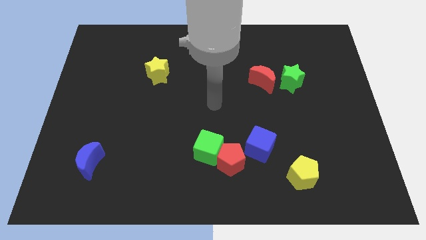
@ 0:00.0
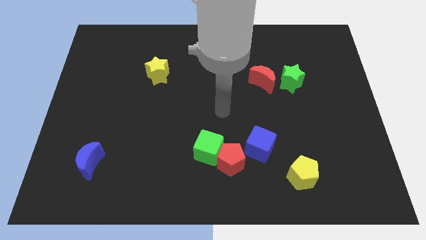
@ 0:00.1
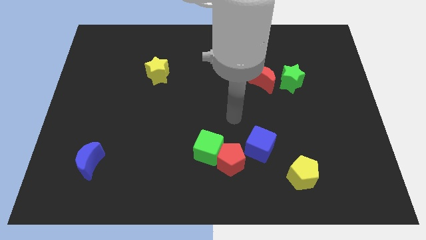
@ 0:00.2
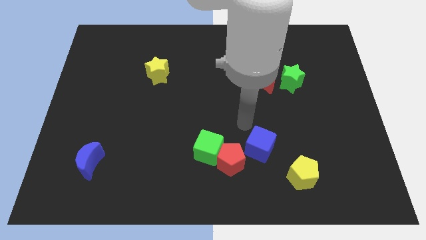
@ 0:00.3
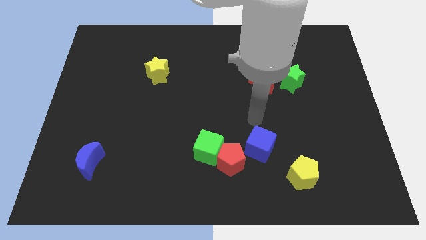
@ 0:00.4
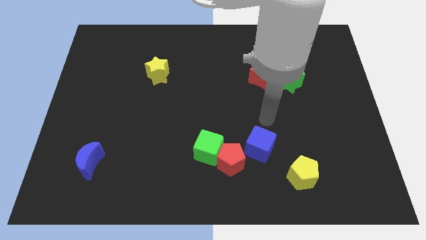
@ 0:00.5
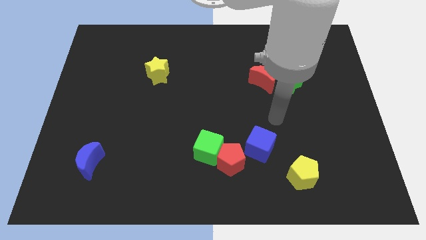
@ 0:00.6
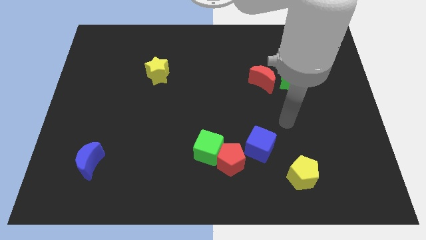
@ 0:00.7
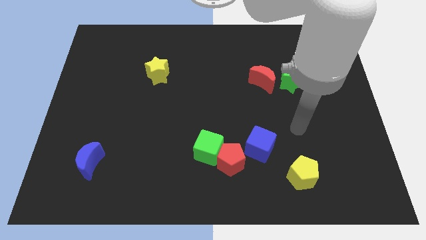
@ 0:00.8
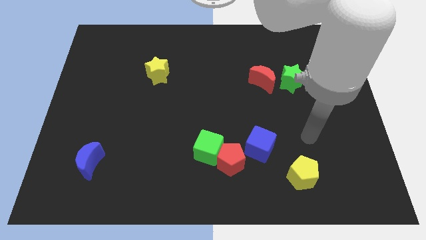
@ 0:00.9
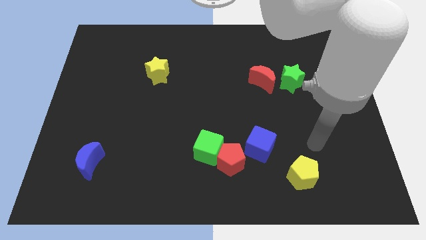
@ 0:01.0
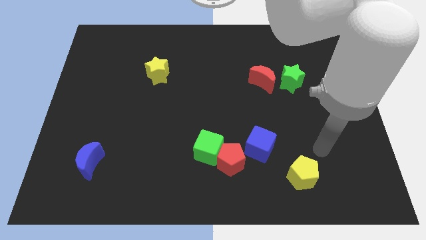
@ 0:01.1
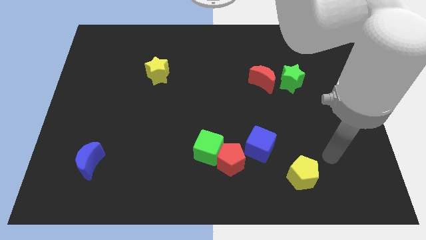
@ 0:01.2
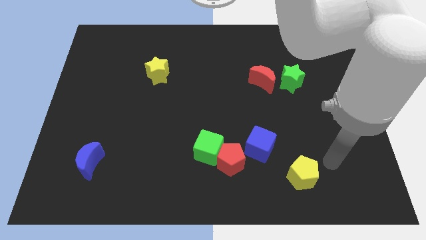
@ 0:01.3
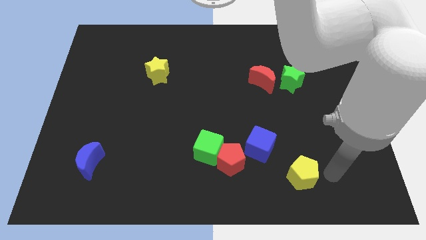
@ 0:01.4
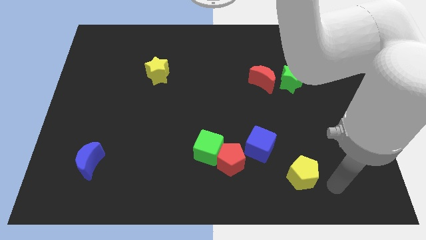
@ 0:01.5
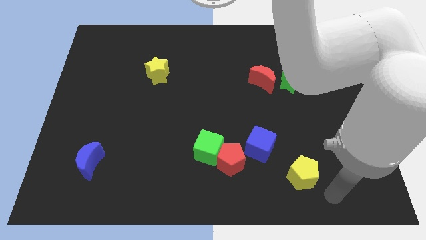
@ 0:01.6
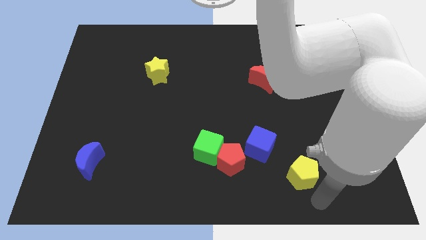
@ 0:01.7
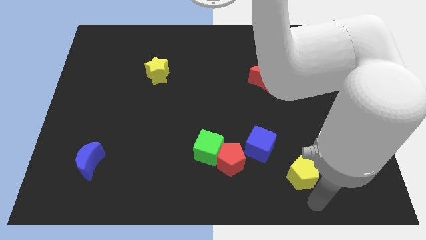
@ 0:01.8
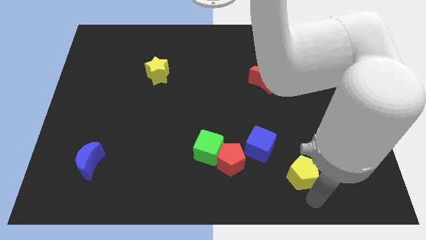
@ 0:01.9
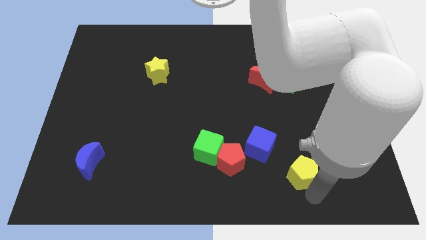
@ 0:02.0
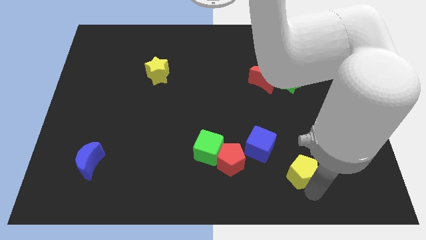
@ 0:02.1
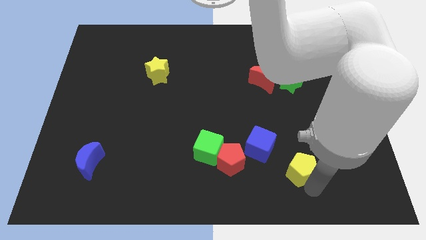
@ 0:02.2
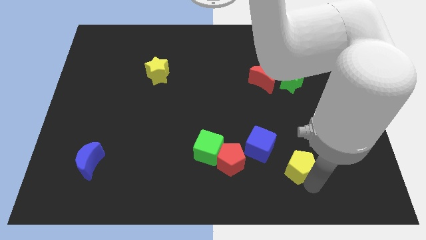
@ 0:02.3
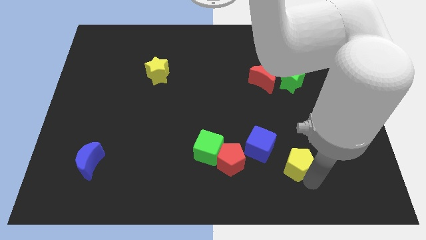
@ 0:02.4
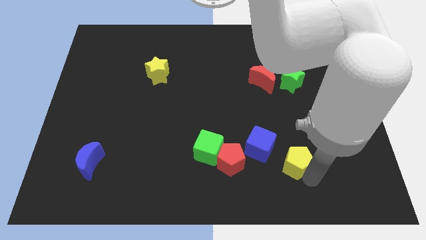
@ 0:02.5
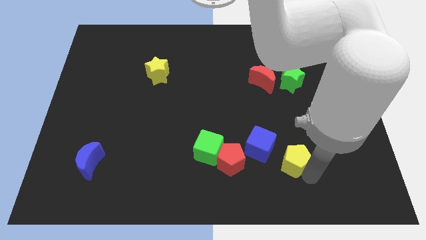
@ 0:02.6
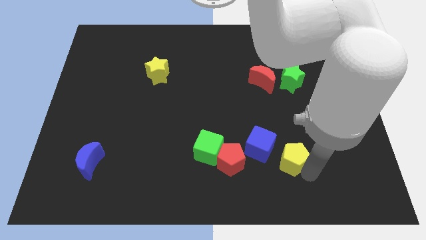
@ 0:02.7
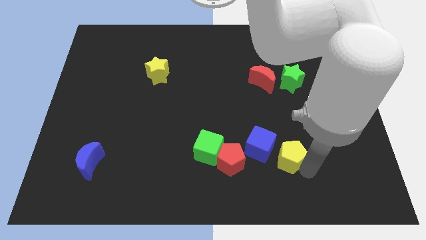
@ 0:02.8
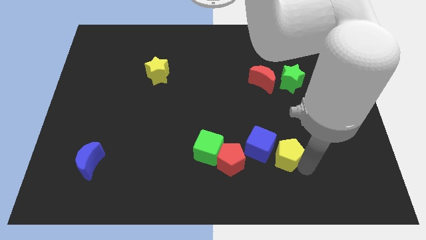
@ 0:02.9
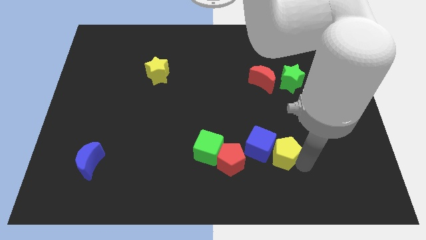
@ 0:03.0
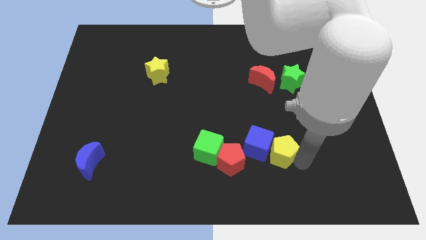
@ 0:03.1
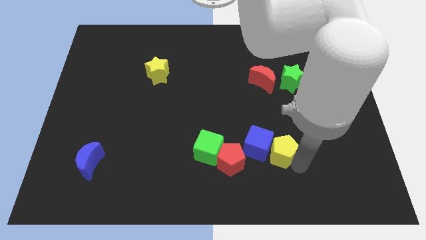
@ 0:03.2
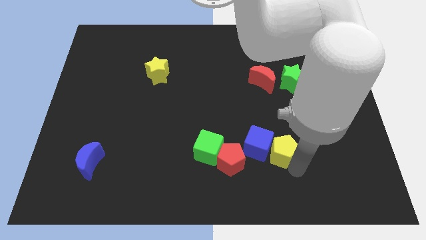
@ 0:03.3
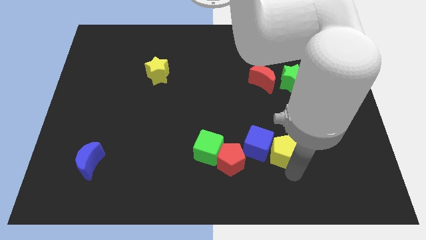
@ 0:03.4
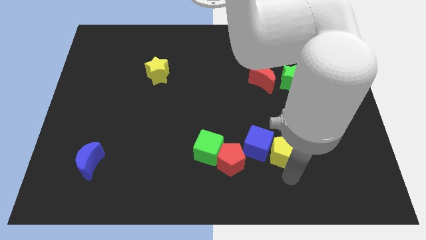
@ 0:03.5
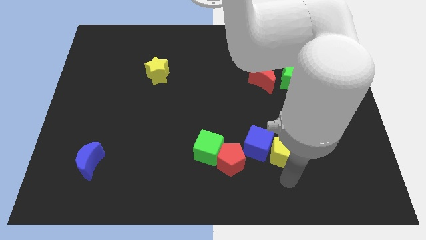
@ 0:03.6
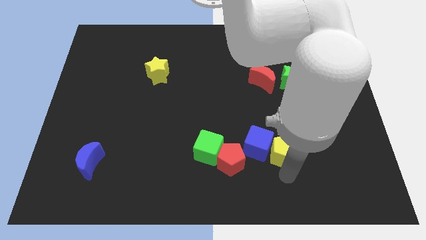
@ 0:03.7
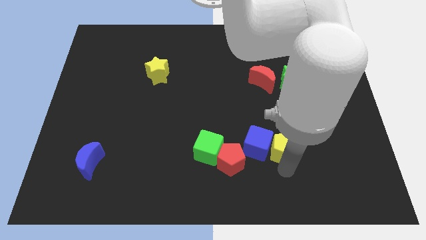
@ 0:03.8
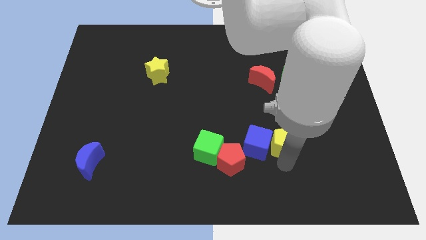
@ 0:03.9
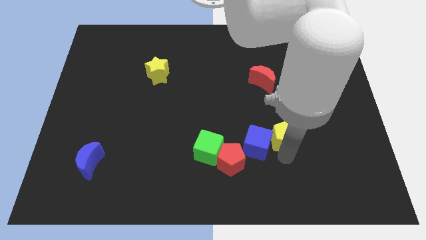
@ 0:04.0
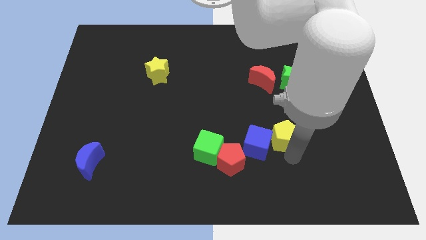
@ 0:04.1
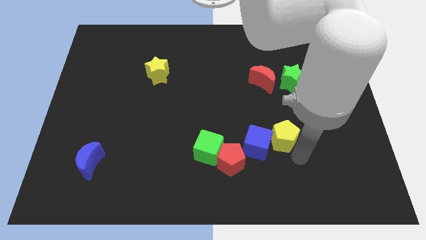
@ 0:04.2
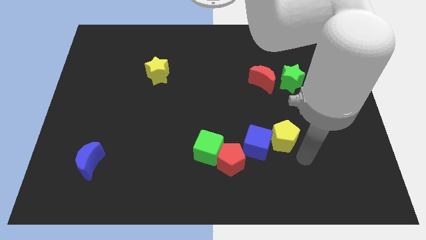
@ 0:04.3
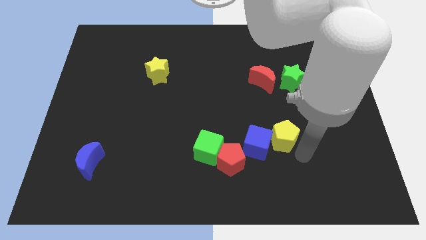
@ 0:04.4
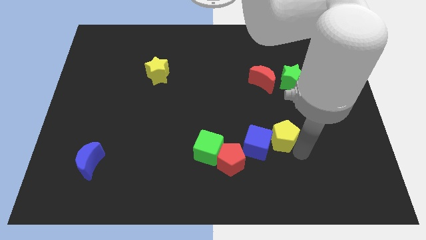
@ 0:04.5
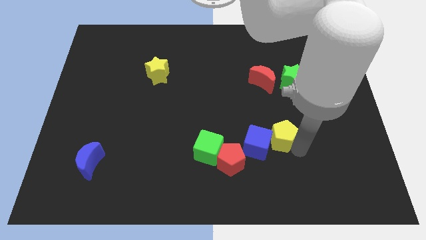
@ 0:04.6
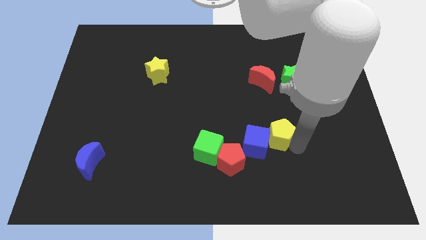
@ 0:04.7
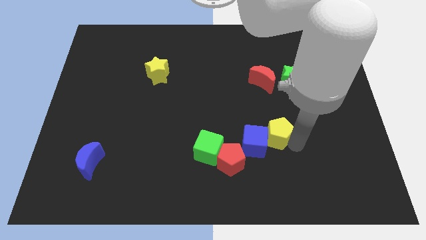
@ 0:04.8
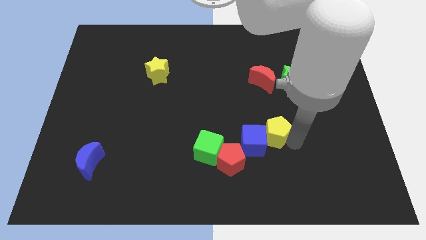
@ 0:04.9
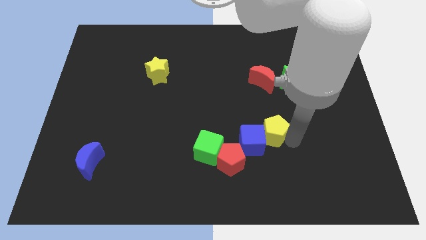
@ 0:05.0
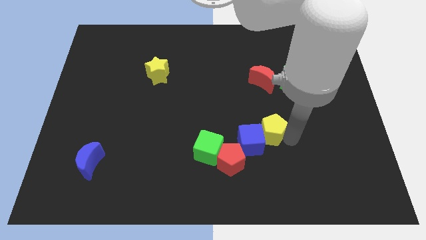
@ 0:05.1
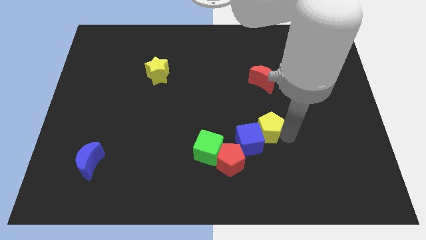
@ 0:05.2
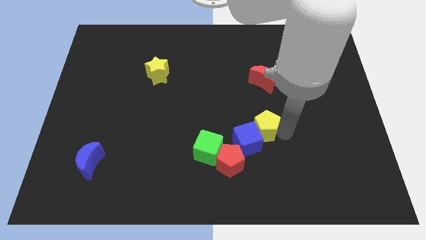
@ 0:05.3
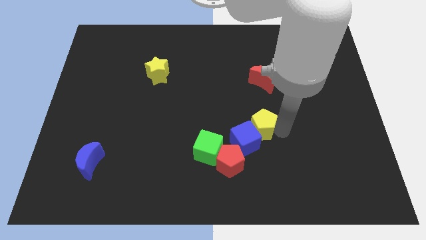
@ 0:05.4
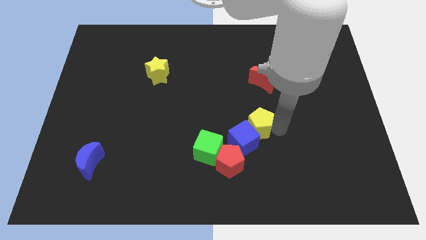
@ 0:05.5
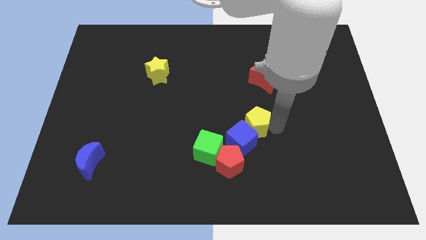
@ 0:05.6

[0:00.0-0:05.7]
slide the yellow pentagon to the middle
